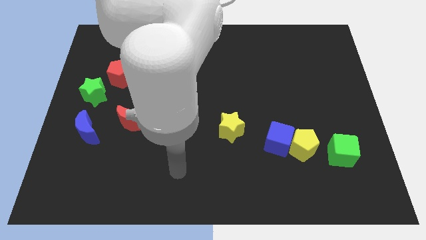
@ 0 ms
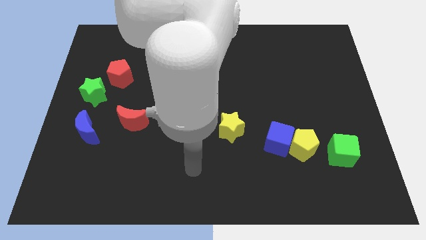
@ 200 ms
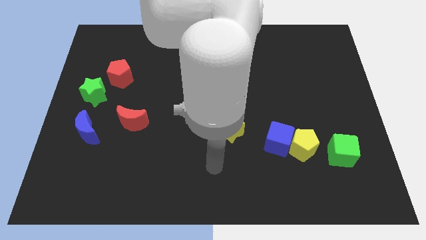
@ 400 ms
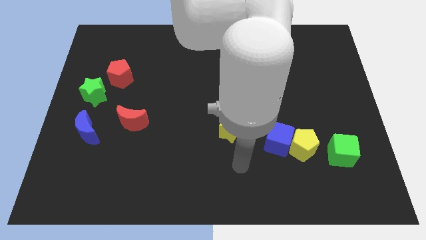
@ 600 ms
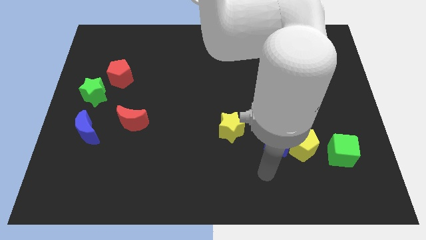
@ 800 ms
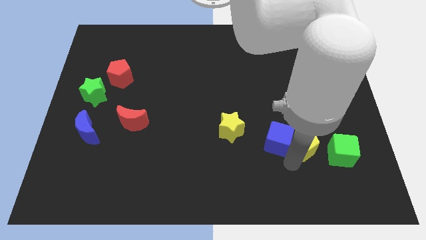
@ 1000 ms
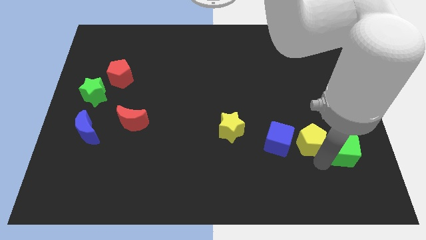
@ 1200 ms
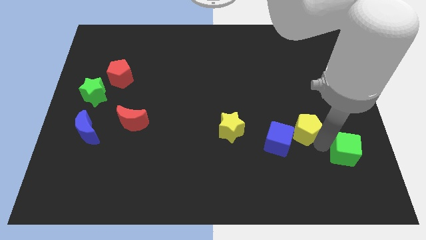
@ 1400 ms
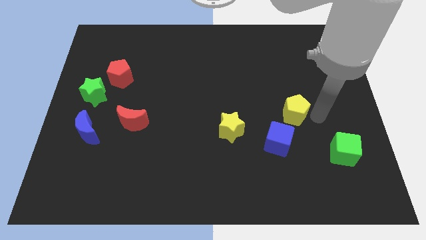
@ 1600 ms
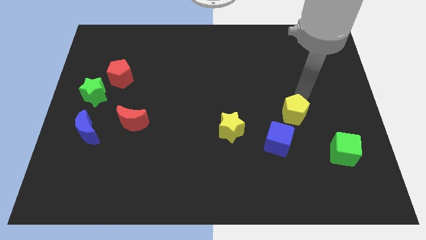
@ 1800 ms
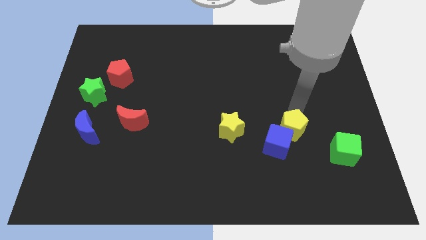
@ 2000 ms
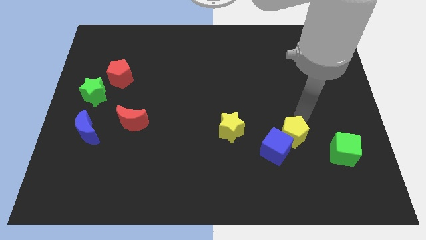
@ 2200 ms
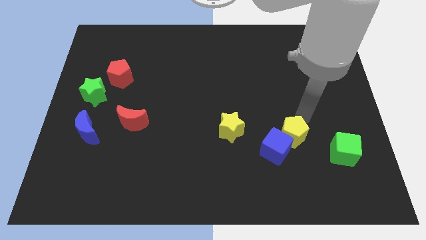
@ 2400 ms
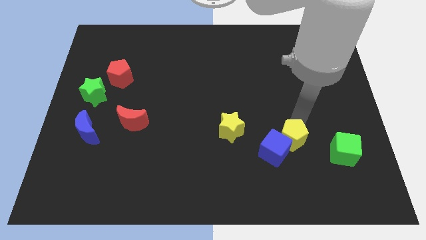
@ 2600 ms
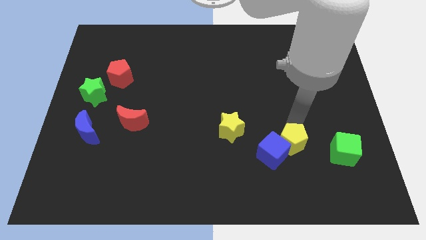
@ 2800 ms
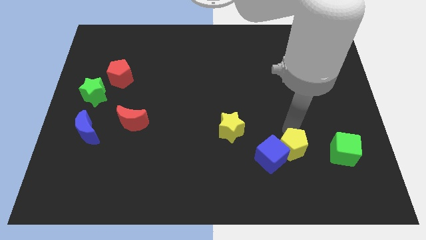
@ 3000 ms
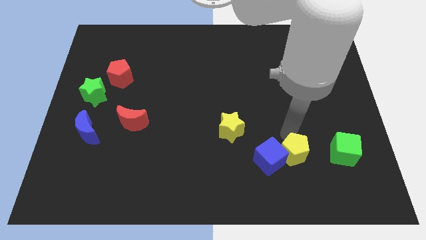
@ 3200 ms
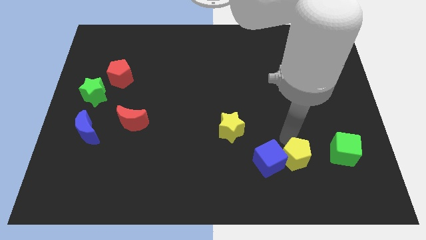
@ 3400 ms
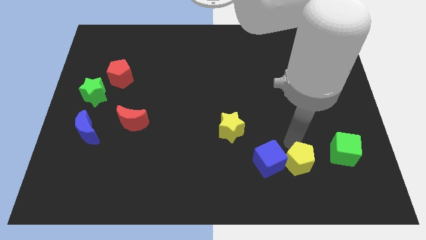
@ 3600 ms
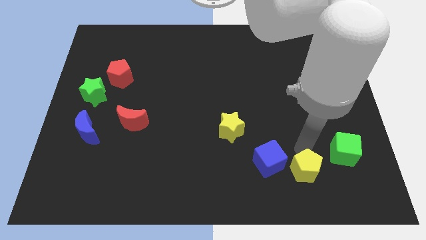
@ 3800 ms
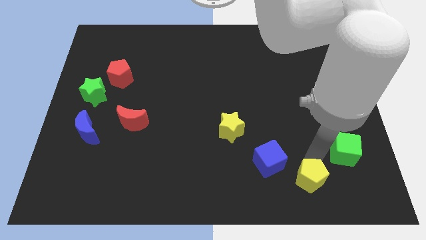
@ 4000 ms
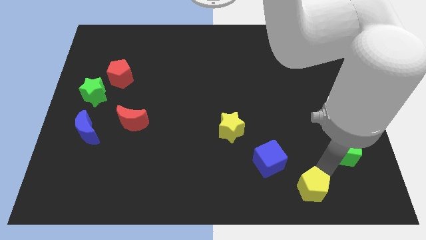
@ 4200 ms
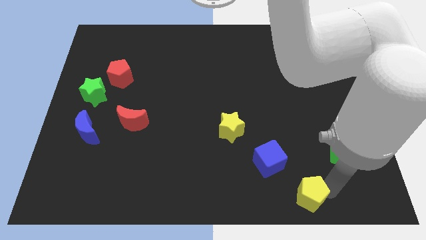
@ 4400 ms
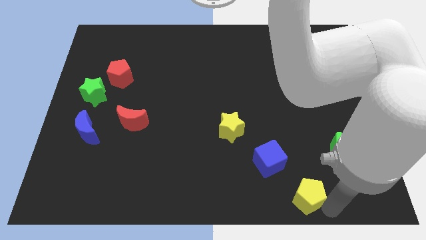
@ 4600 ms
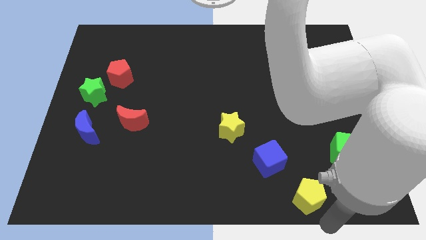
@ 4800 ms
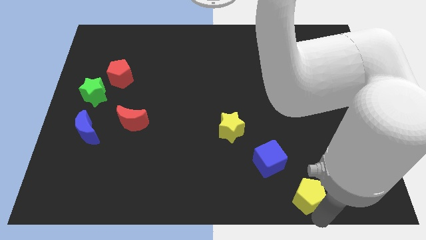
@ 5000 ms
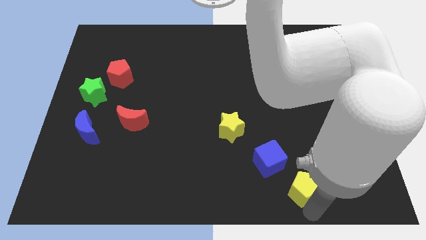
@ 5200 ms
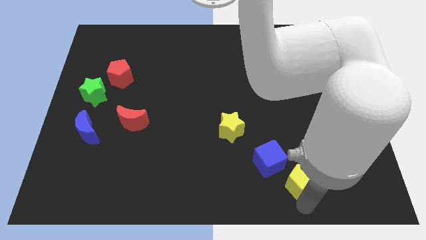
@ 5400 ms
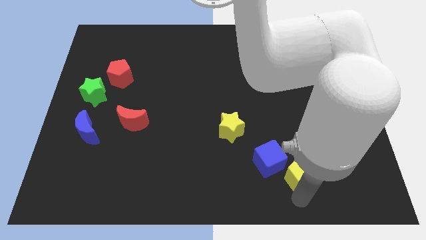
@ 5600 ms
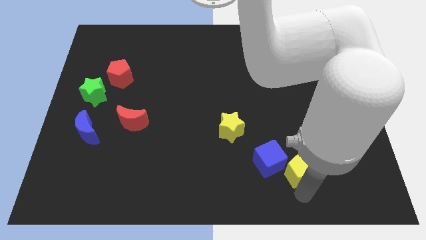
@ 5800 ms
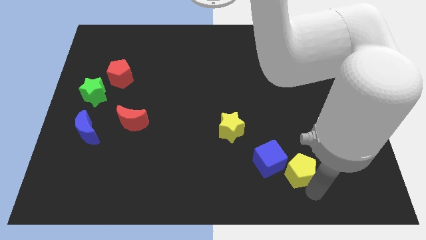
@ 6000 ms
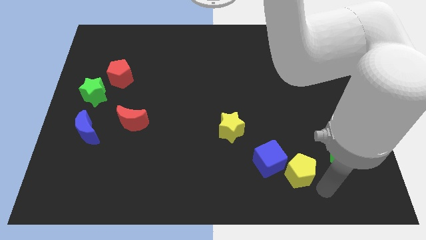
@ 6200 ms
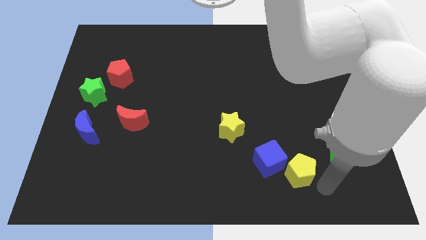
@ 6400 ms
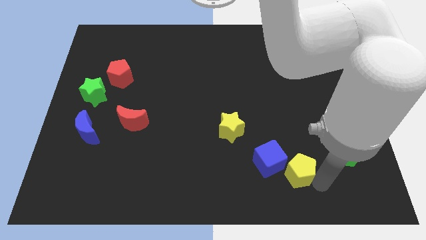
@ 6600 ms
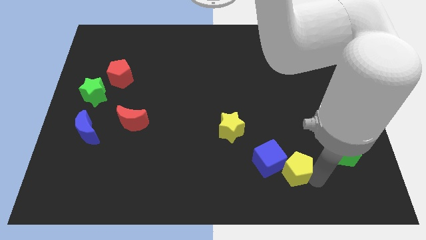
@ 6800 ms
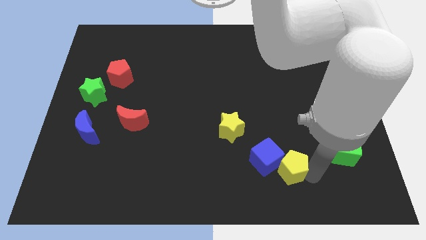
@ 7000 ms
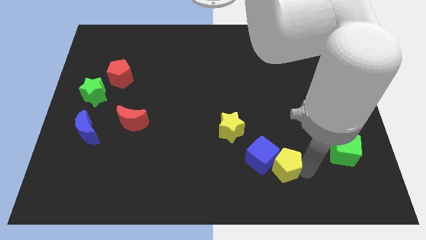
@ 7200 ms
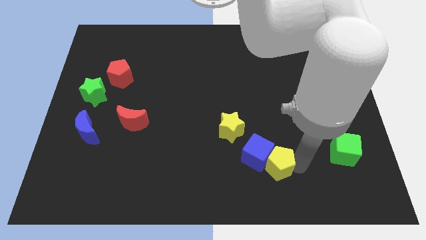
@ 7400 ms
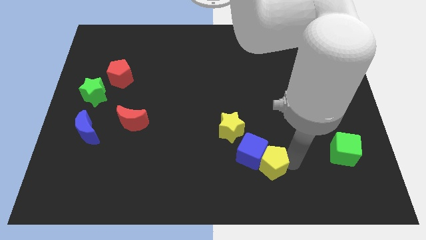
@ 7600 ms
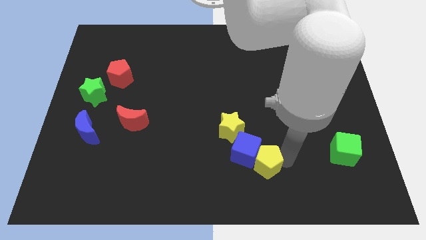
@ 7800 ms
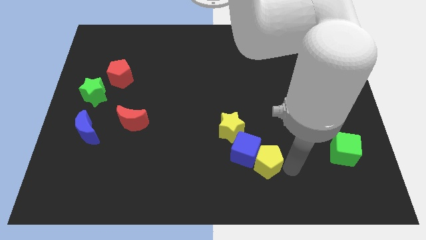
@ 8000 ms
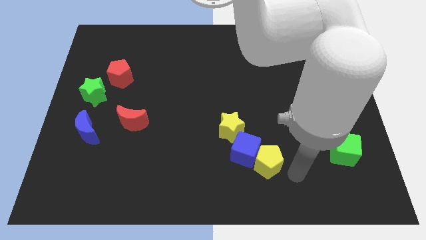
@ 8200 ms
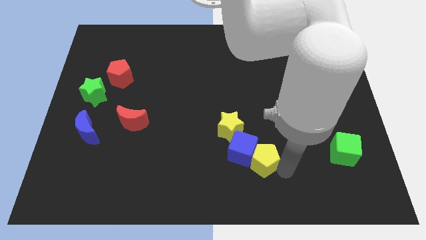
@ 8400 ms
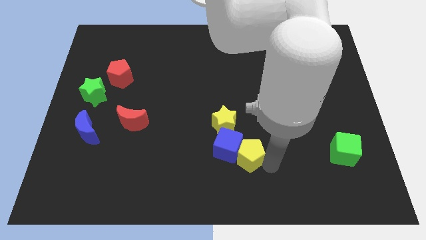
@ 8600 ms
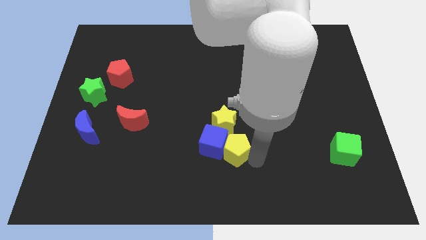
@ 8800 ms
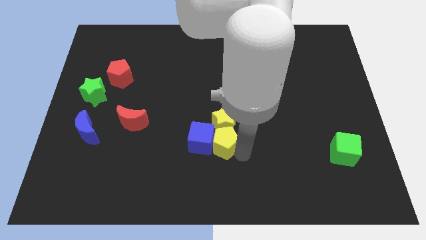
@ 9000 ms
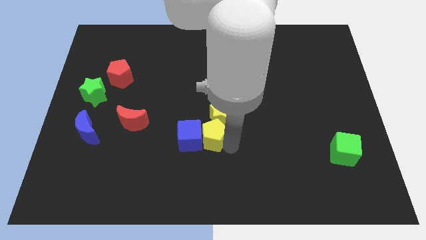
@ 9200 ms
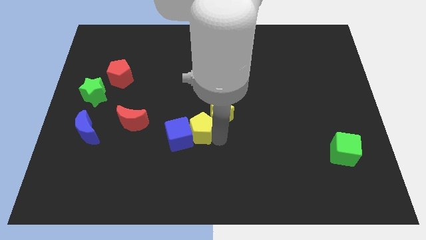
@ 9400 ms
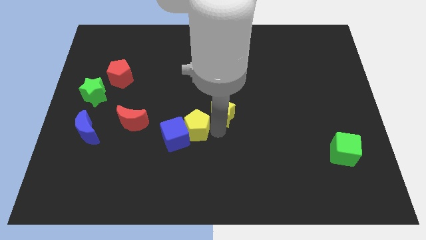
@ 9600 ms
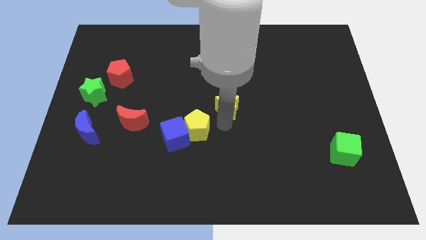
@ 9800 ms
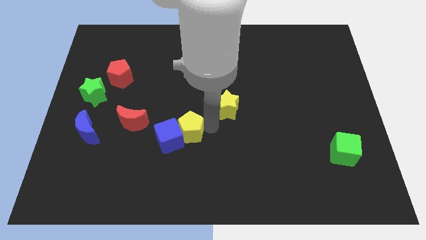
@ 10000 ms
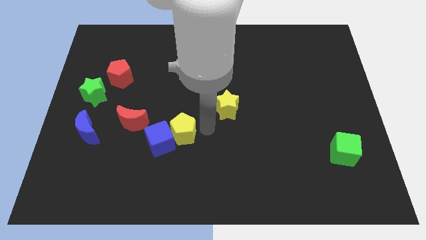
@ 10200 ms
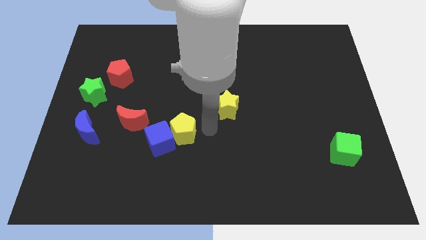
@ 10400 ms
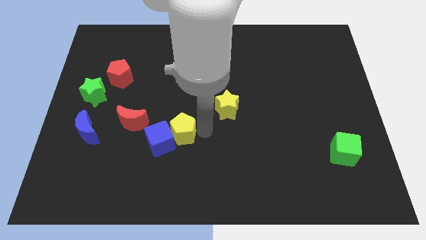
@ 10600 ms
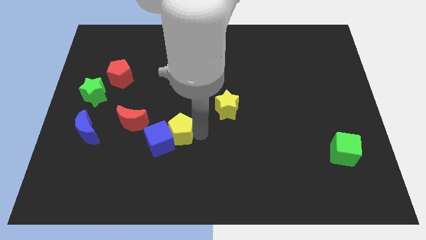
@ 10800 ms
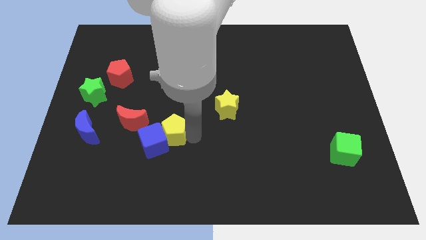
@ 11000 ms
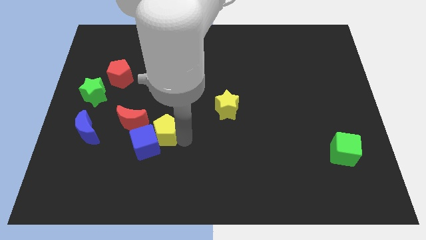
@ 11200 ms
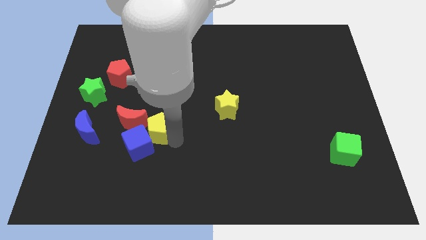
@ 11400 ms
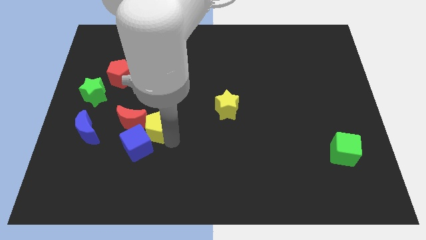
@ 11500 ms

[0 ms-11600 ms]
put the yellow pentagon towards the red moon
